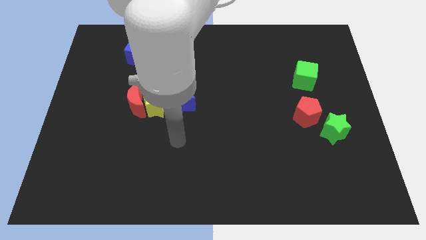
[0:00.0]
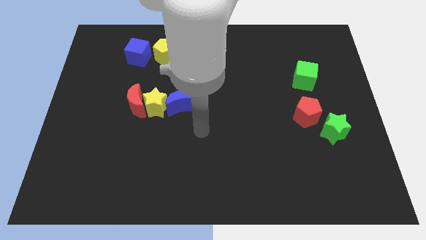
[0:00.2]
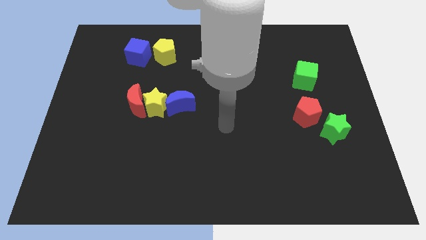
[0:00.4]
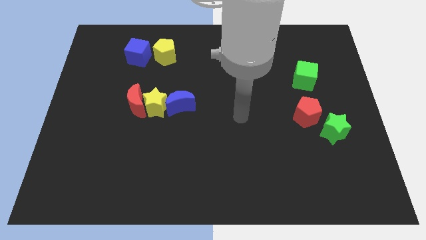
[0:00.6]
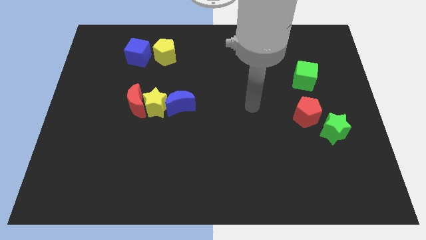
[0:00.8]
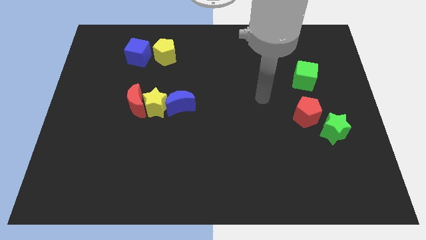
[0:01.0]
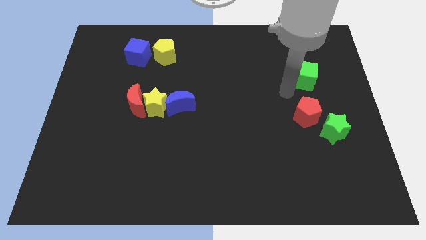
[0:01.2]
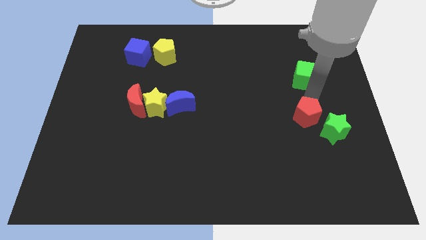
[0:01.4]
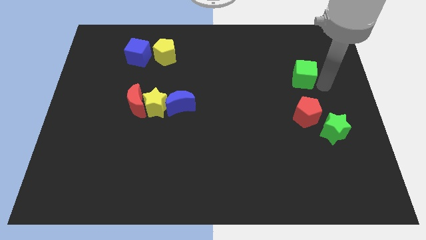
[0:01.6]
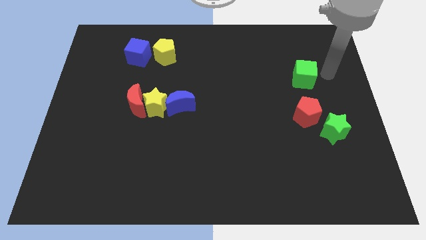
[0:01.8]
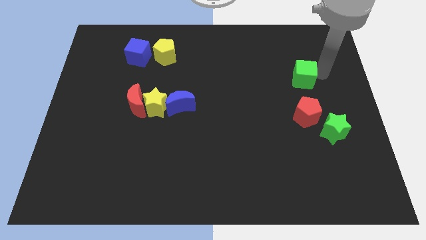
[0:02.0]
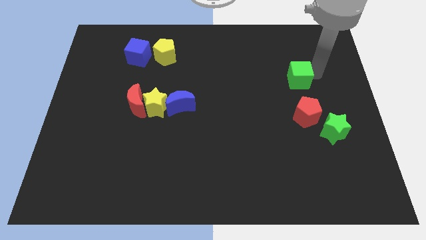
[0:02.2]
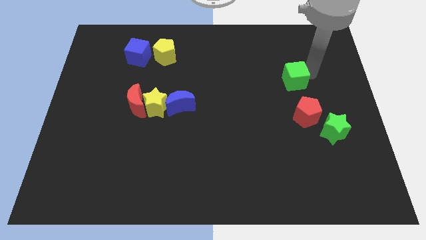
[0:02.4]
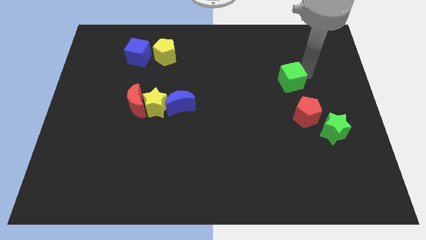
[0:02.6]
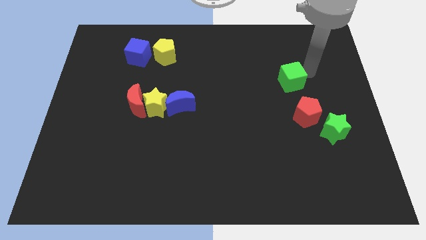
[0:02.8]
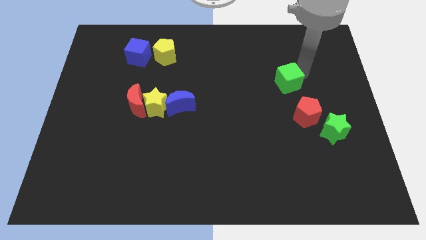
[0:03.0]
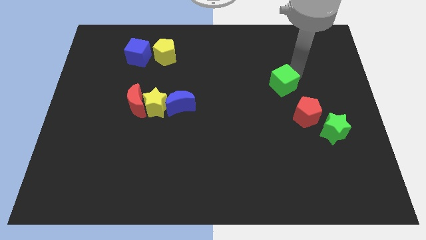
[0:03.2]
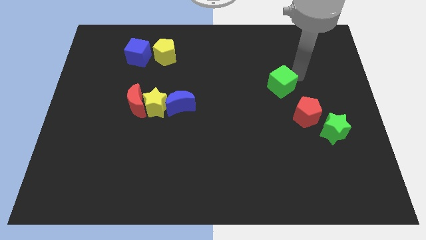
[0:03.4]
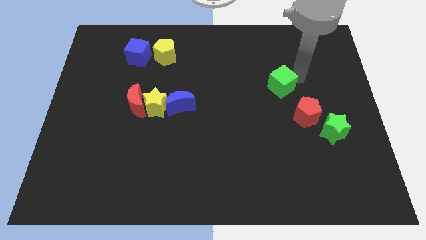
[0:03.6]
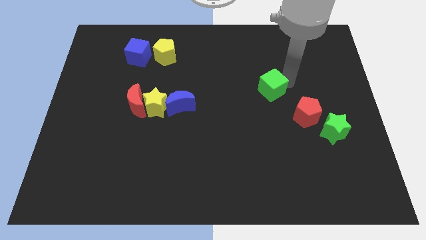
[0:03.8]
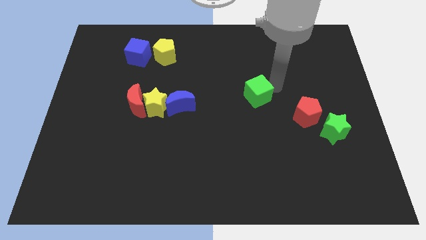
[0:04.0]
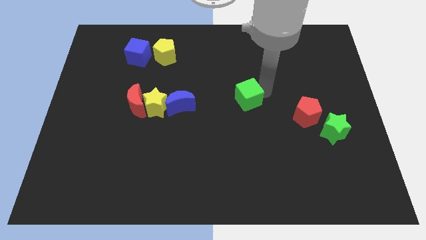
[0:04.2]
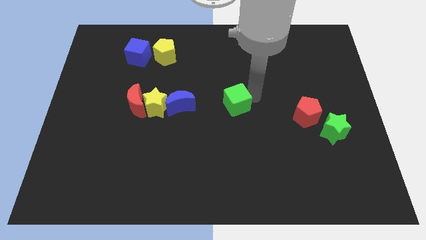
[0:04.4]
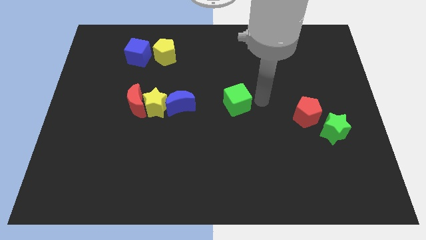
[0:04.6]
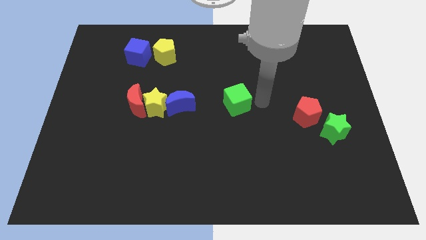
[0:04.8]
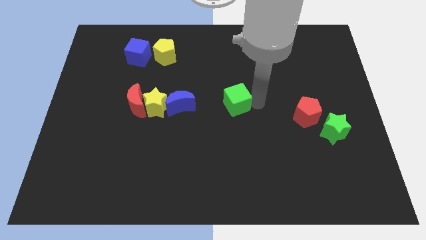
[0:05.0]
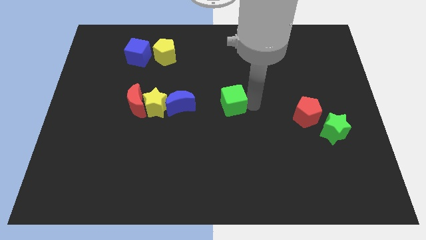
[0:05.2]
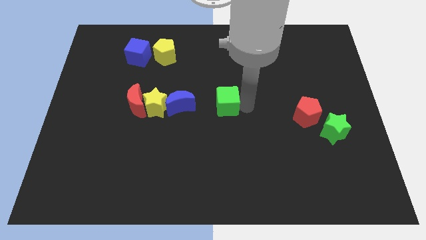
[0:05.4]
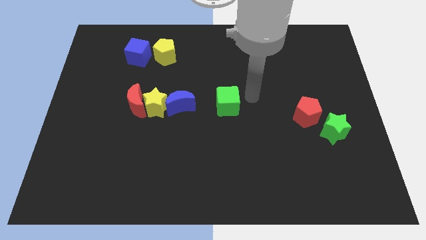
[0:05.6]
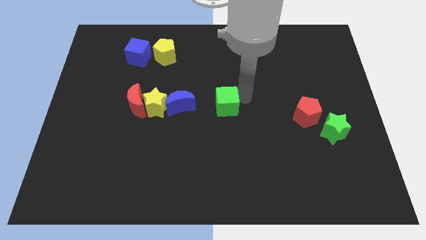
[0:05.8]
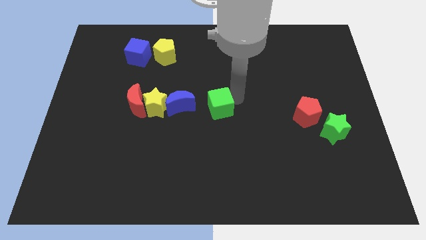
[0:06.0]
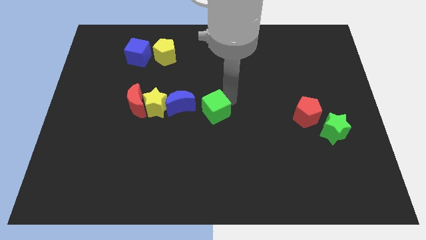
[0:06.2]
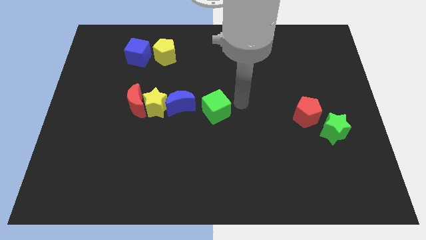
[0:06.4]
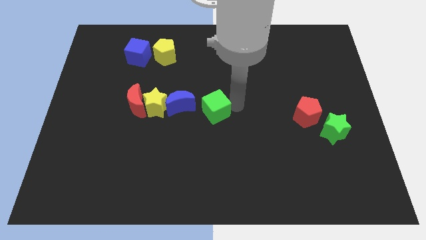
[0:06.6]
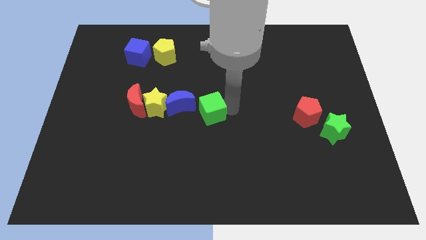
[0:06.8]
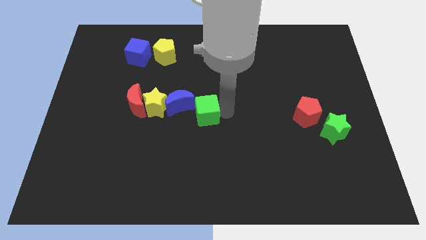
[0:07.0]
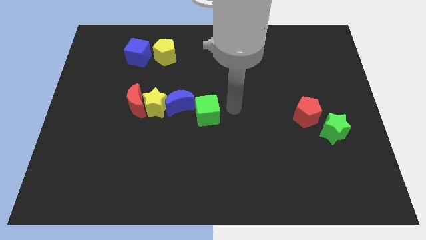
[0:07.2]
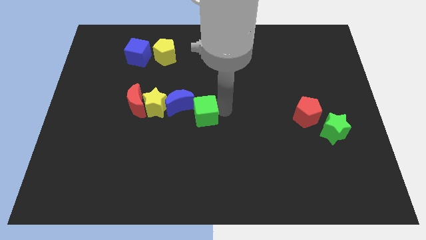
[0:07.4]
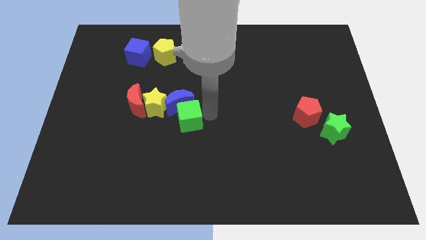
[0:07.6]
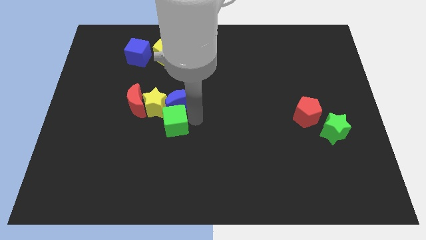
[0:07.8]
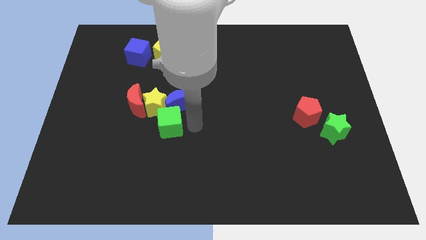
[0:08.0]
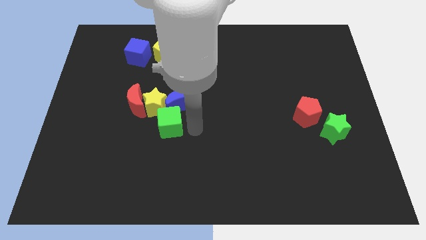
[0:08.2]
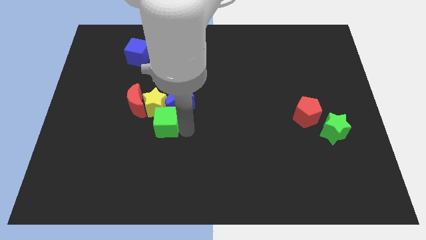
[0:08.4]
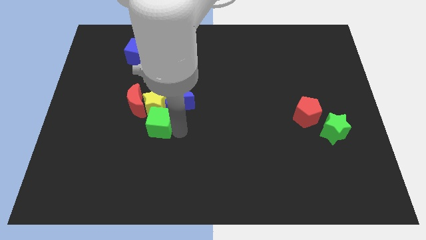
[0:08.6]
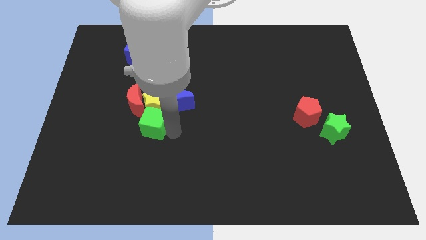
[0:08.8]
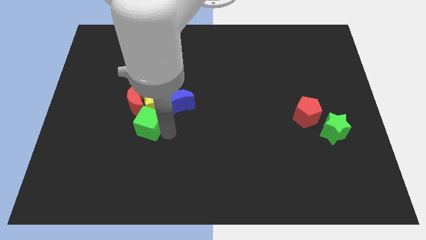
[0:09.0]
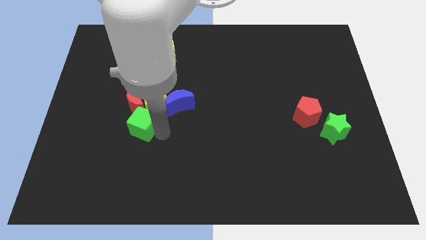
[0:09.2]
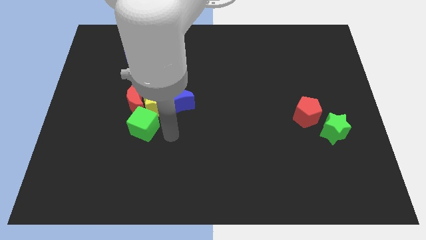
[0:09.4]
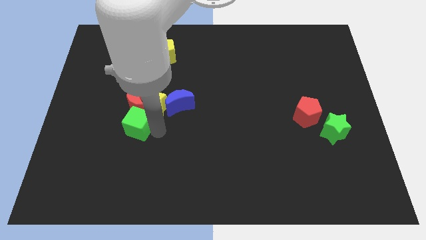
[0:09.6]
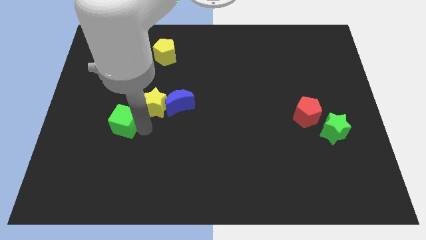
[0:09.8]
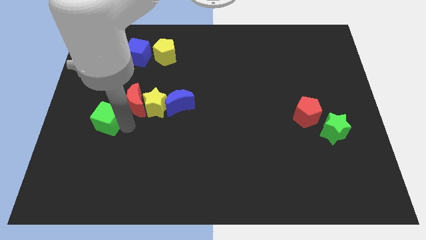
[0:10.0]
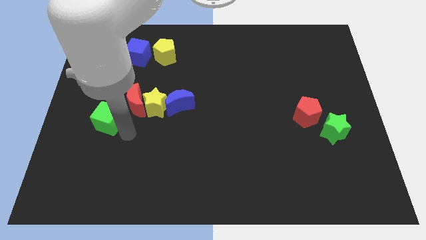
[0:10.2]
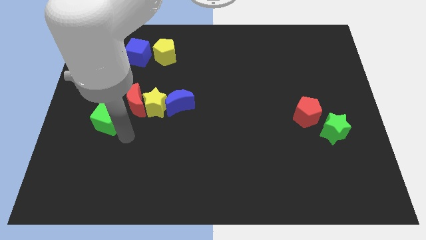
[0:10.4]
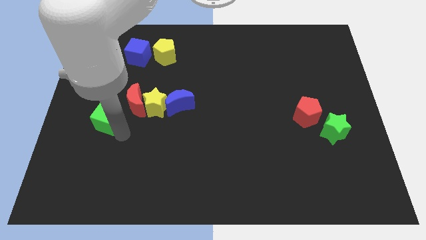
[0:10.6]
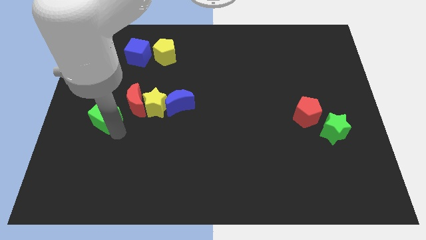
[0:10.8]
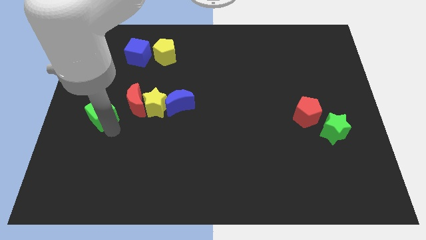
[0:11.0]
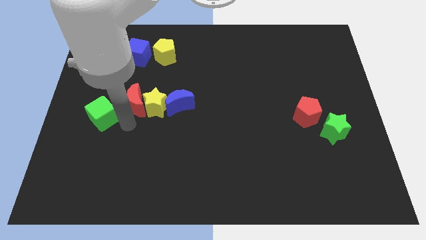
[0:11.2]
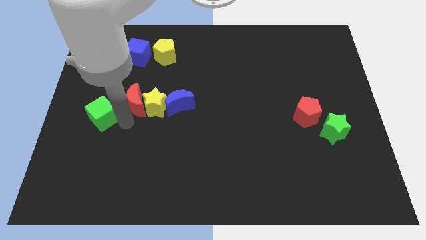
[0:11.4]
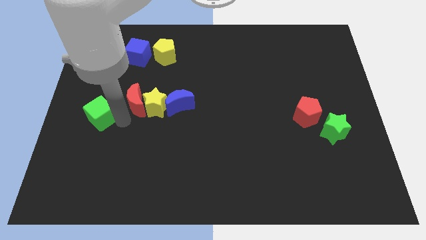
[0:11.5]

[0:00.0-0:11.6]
push the green cube to the left side of the board

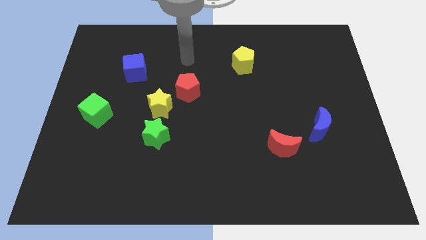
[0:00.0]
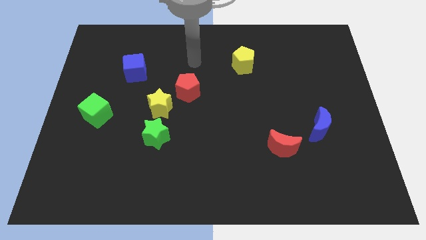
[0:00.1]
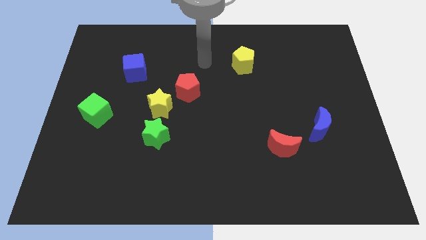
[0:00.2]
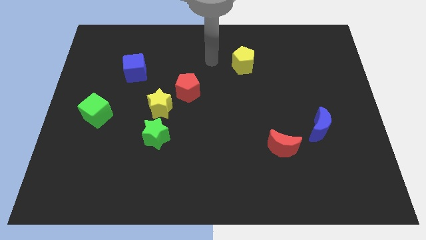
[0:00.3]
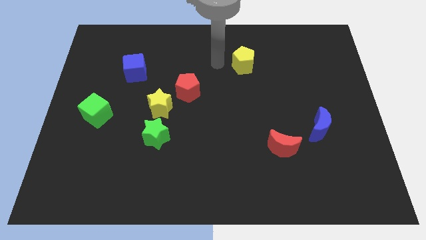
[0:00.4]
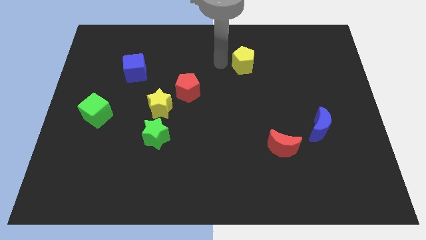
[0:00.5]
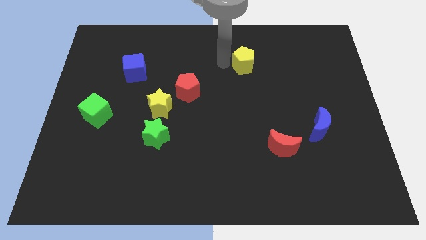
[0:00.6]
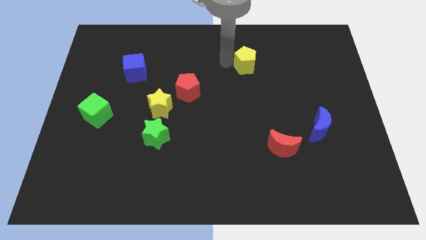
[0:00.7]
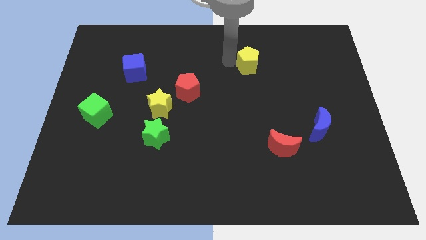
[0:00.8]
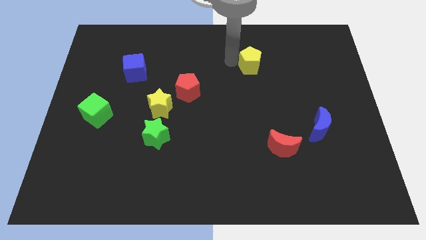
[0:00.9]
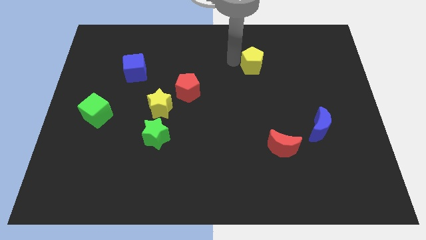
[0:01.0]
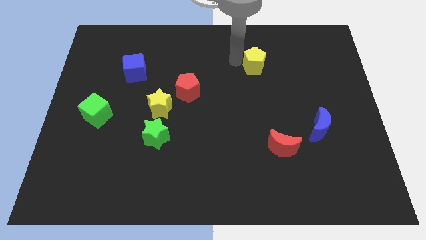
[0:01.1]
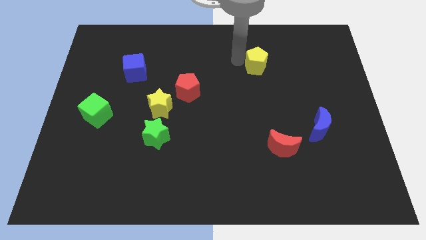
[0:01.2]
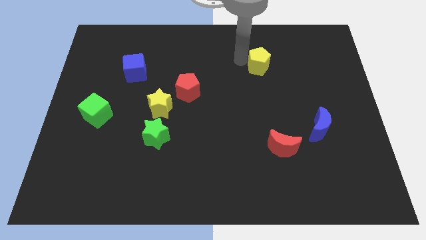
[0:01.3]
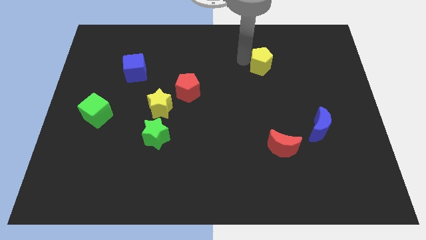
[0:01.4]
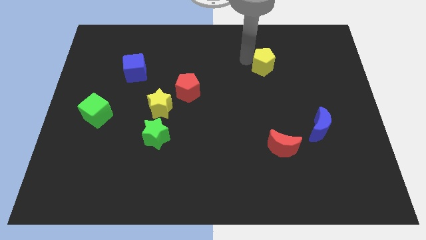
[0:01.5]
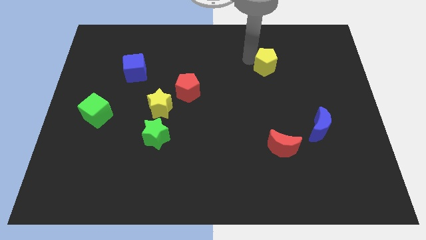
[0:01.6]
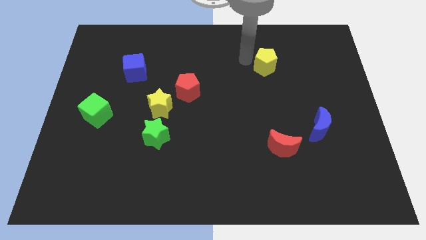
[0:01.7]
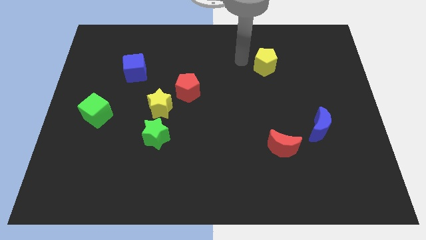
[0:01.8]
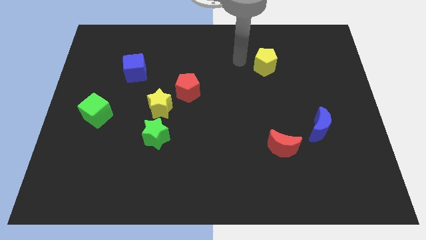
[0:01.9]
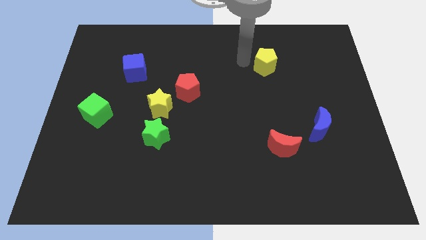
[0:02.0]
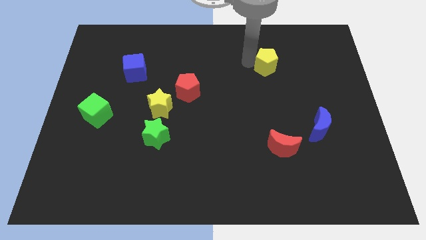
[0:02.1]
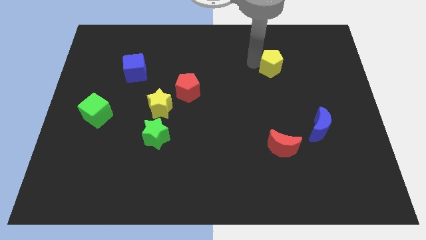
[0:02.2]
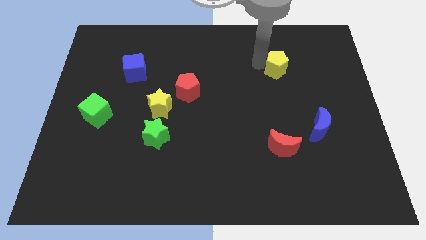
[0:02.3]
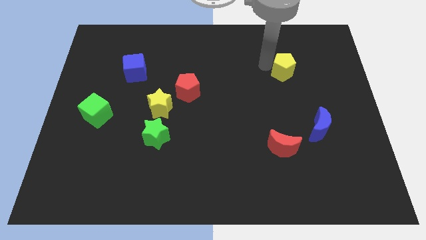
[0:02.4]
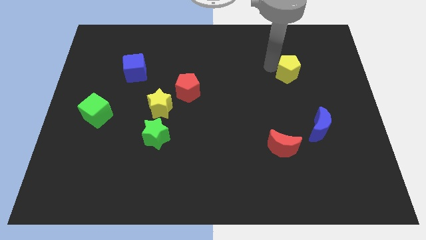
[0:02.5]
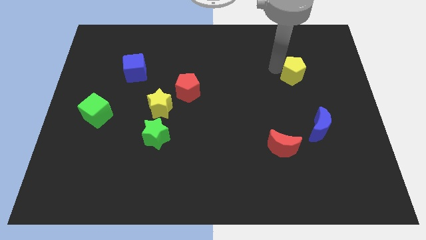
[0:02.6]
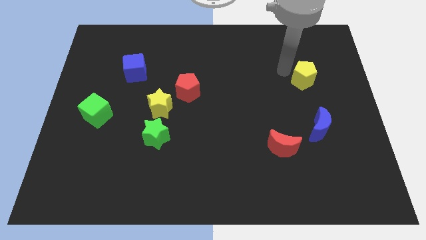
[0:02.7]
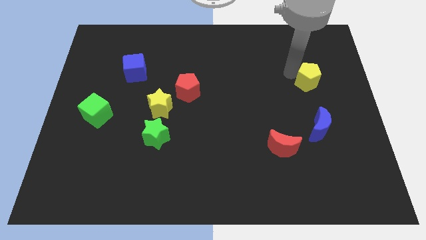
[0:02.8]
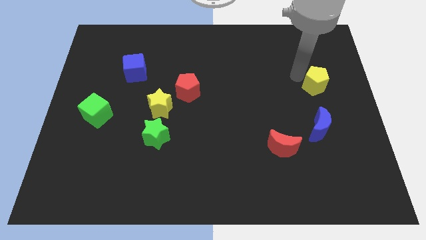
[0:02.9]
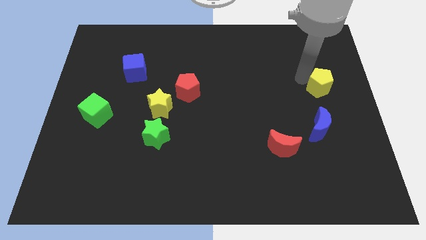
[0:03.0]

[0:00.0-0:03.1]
put the yellow pentagon to the center right
